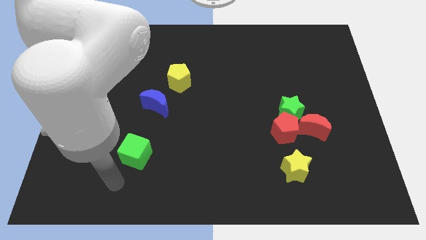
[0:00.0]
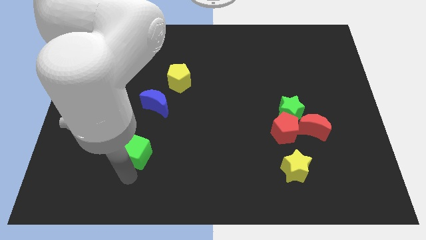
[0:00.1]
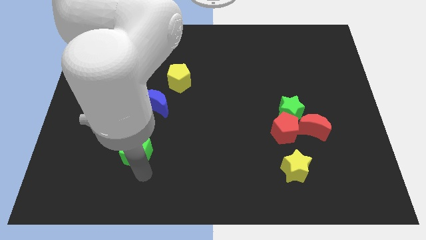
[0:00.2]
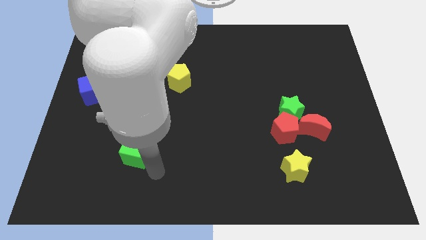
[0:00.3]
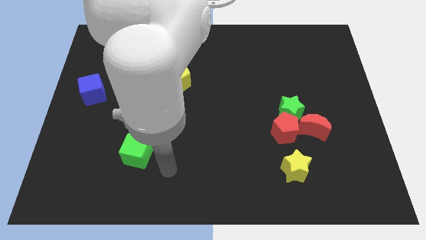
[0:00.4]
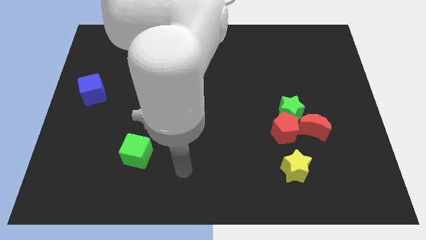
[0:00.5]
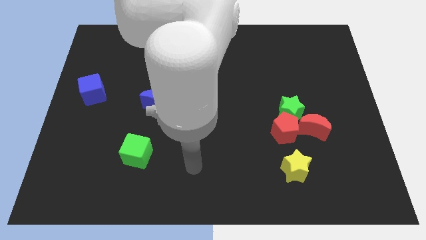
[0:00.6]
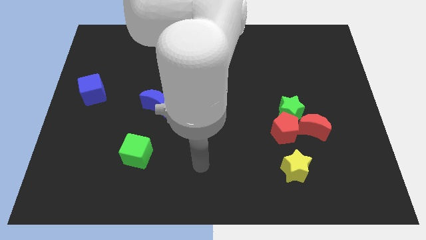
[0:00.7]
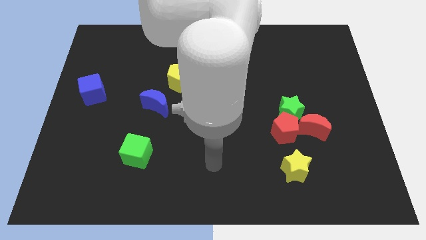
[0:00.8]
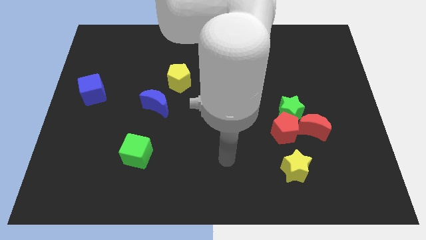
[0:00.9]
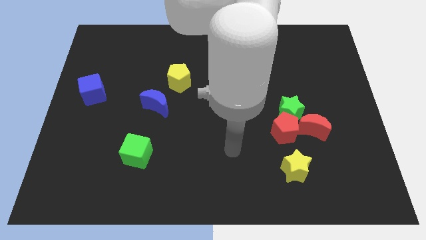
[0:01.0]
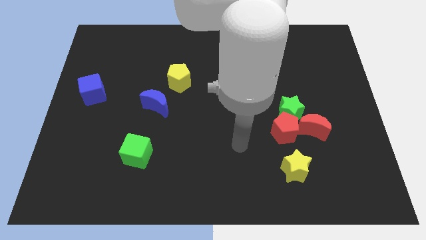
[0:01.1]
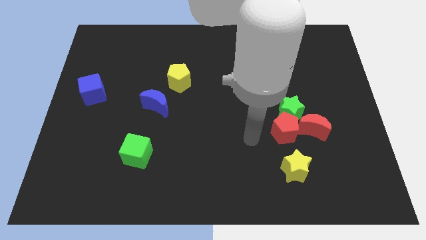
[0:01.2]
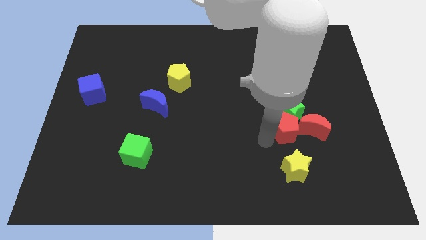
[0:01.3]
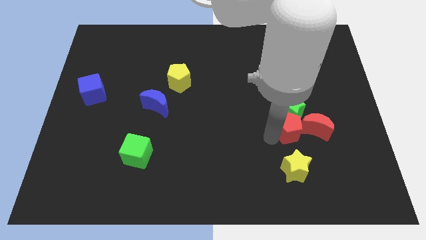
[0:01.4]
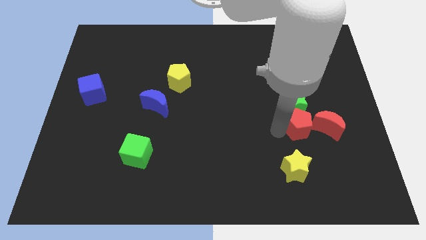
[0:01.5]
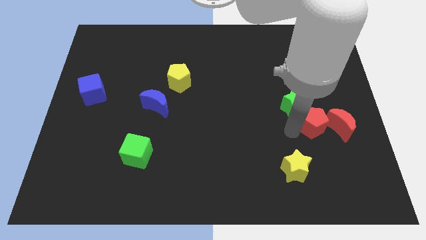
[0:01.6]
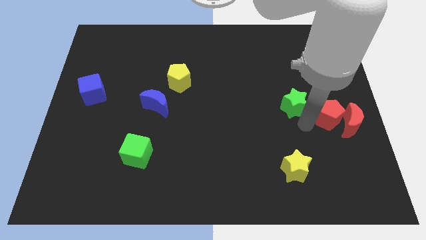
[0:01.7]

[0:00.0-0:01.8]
separate the green star from the red pentagon and red moon

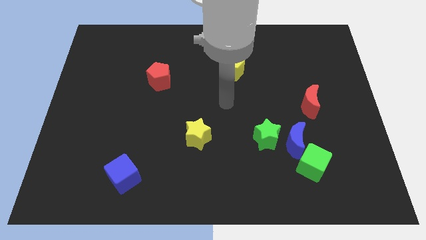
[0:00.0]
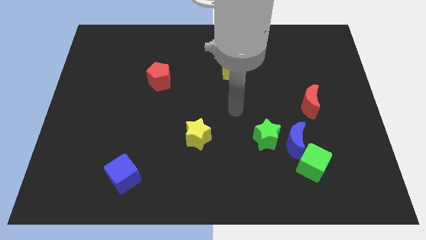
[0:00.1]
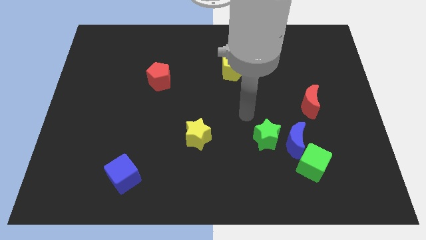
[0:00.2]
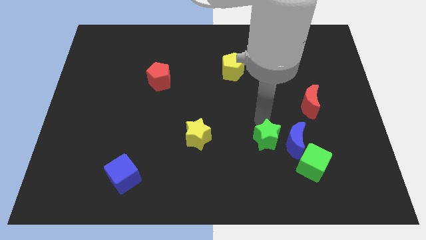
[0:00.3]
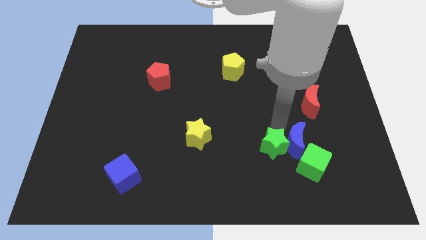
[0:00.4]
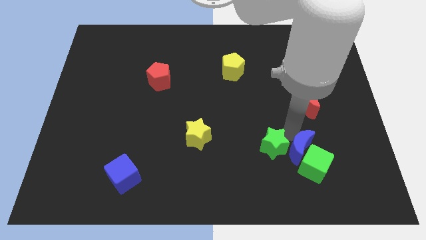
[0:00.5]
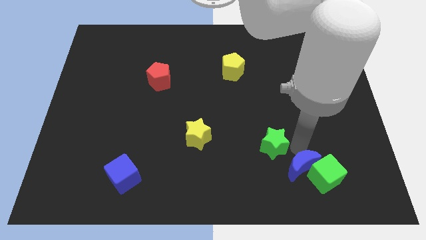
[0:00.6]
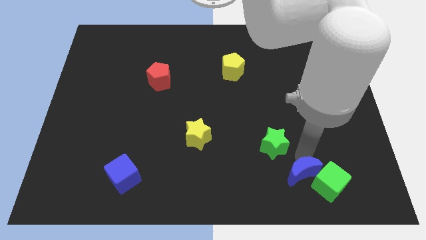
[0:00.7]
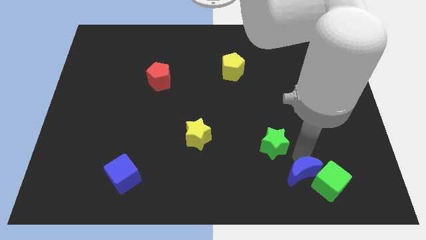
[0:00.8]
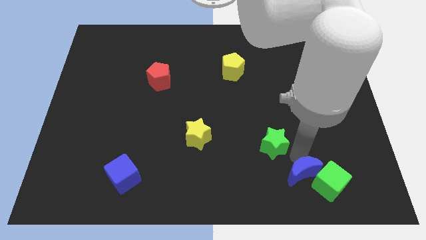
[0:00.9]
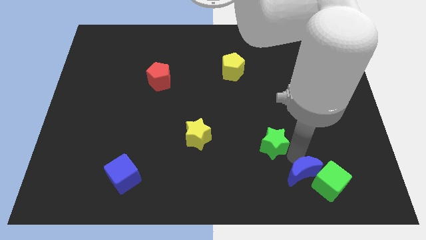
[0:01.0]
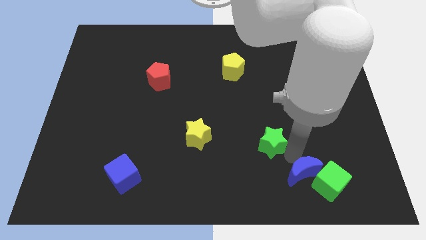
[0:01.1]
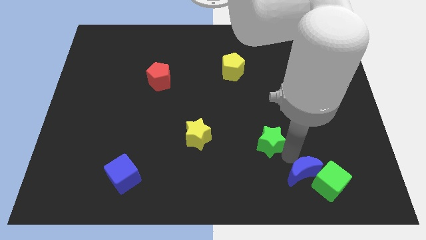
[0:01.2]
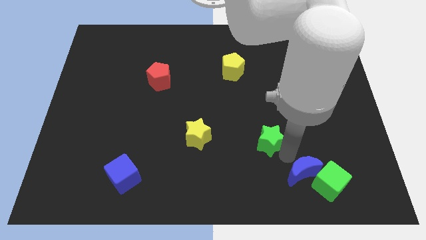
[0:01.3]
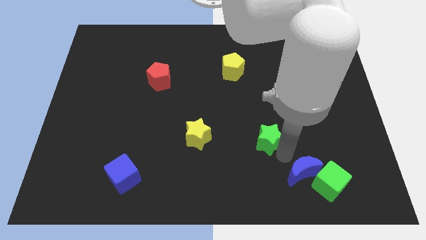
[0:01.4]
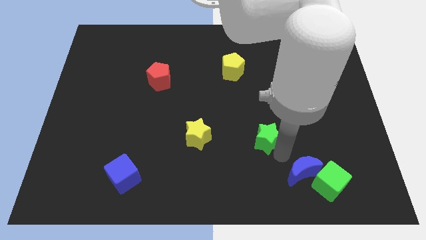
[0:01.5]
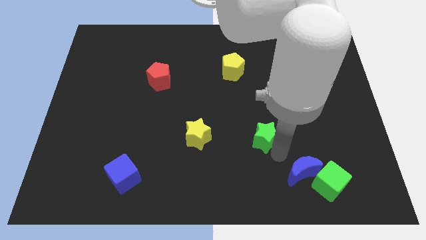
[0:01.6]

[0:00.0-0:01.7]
pull the green star apart from the blue moon

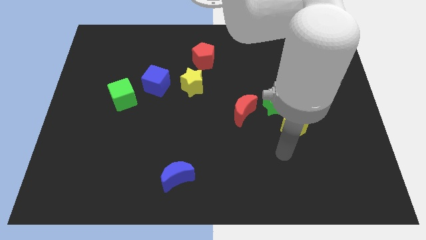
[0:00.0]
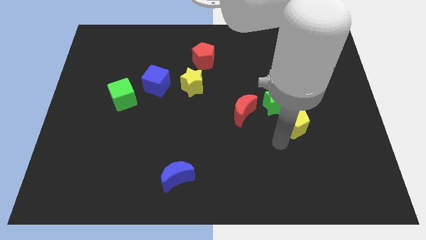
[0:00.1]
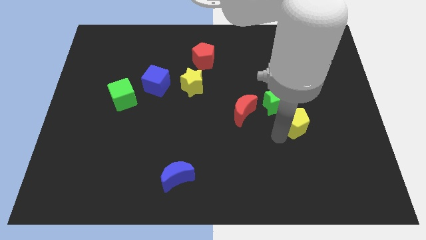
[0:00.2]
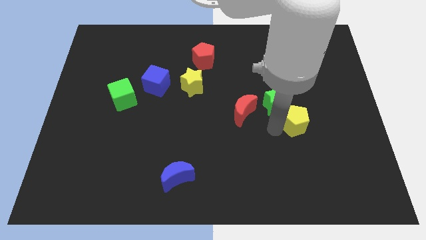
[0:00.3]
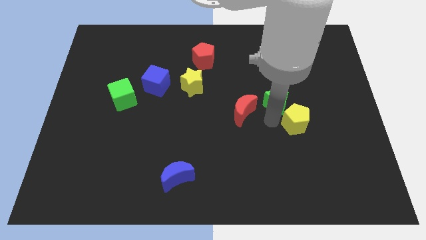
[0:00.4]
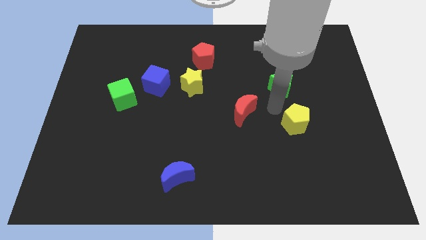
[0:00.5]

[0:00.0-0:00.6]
move the yellow pentagon away from the green star

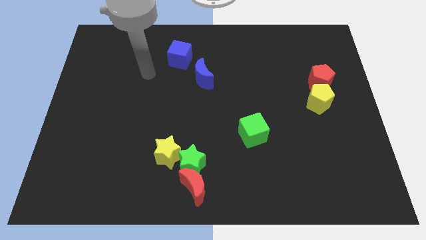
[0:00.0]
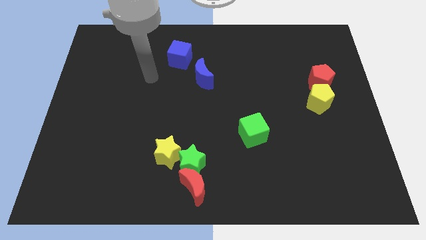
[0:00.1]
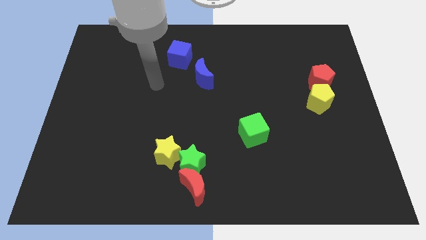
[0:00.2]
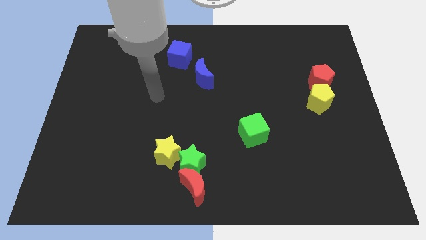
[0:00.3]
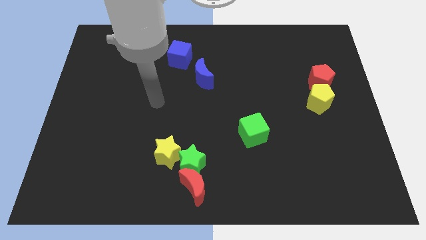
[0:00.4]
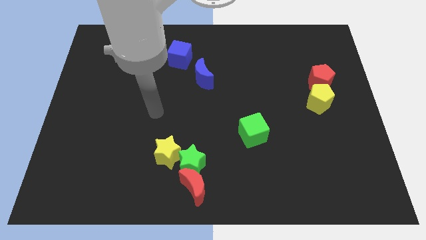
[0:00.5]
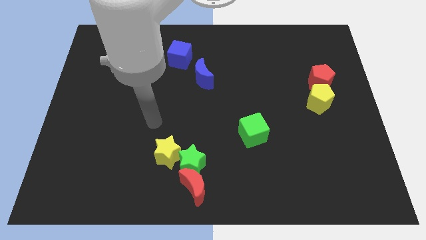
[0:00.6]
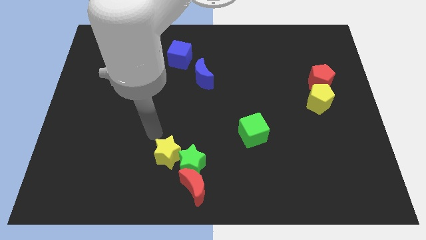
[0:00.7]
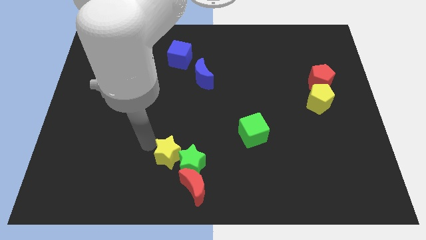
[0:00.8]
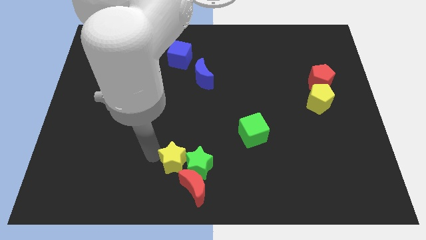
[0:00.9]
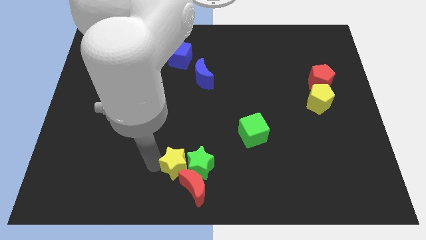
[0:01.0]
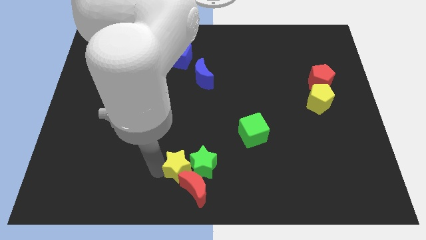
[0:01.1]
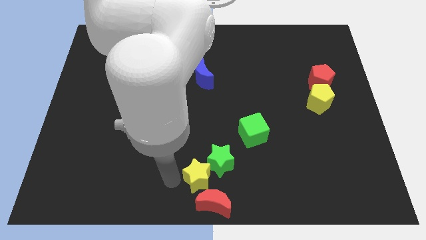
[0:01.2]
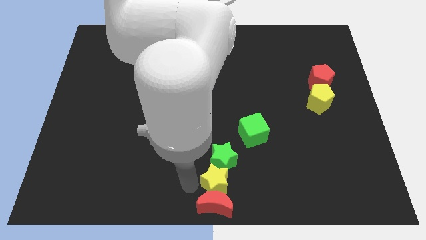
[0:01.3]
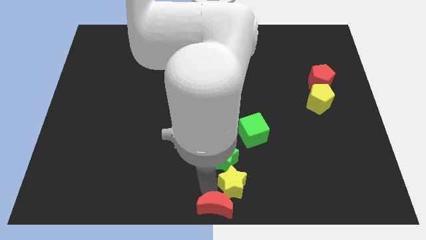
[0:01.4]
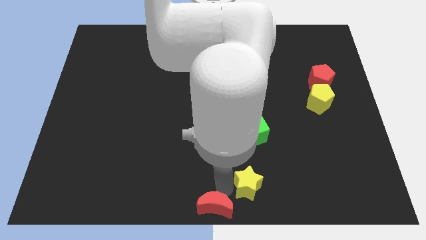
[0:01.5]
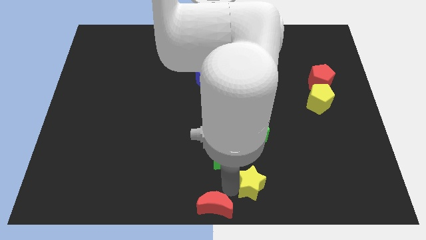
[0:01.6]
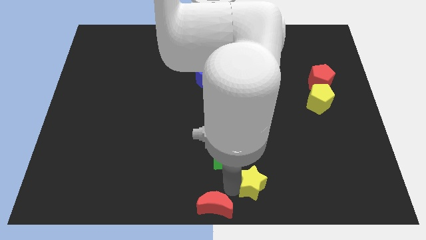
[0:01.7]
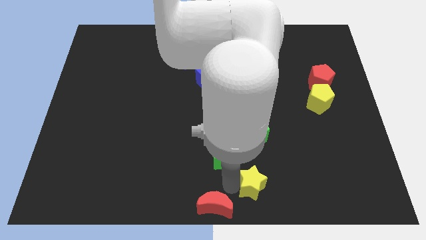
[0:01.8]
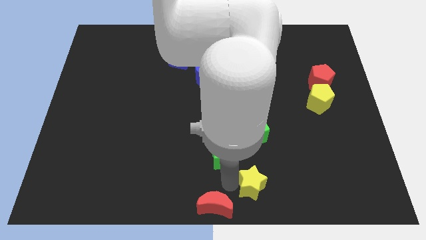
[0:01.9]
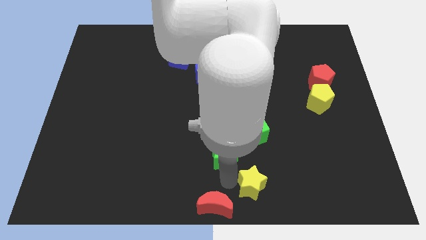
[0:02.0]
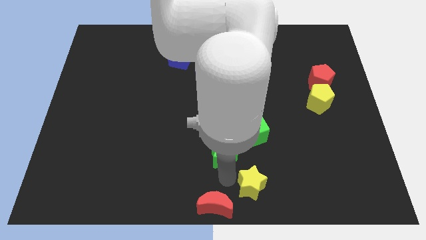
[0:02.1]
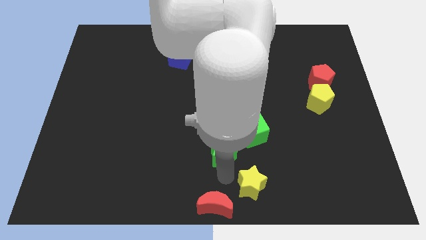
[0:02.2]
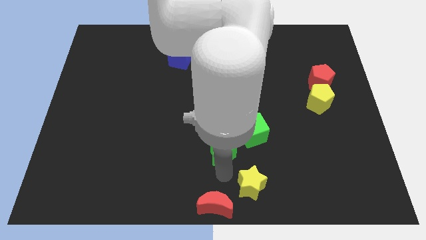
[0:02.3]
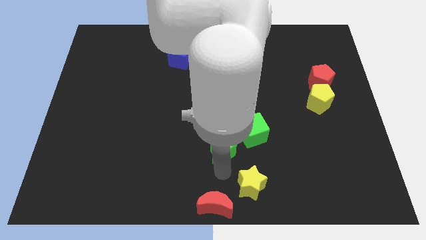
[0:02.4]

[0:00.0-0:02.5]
move the green star away from the red moon and yellow star

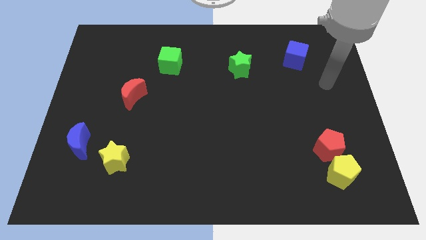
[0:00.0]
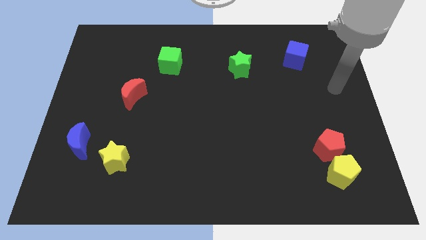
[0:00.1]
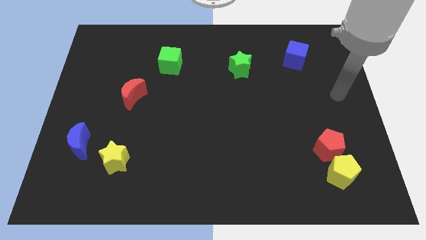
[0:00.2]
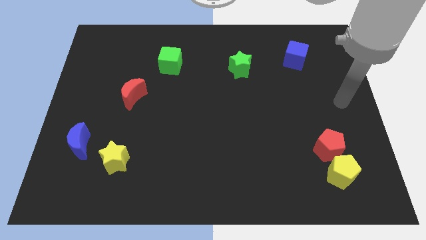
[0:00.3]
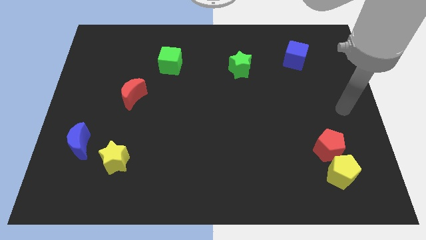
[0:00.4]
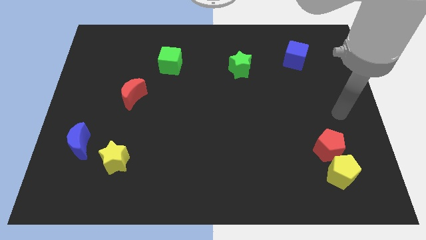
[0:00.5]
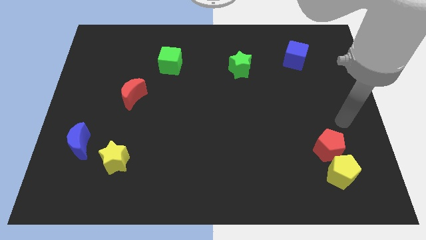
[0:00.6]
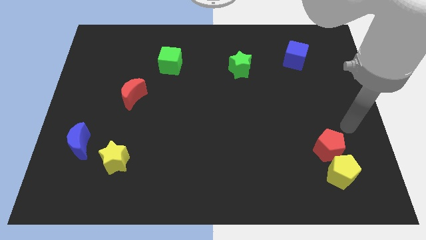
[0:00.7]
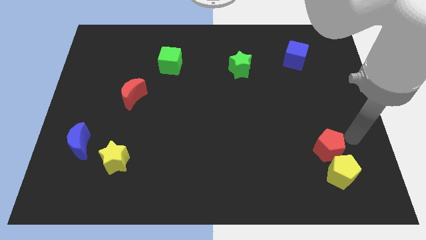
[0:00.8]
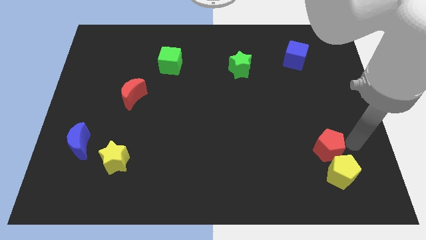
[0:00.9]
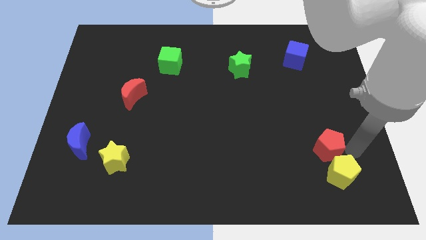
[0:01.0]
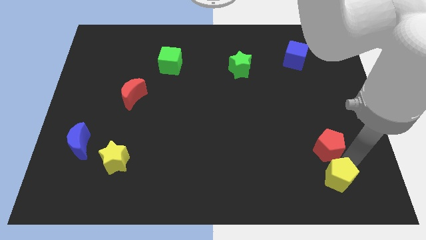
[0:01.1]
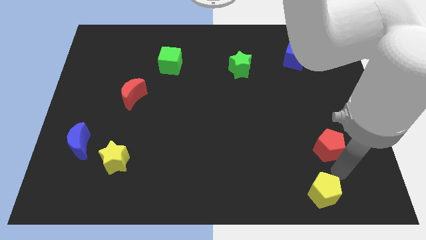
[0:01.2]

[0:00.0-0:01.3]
move the red pentagon away from the yellow pentagon

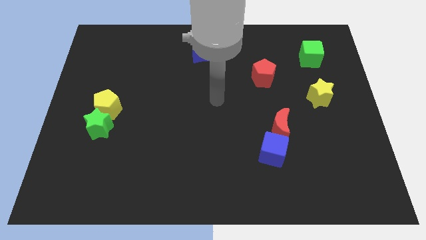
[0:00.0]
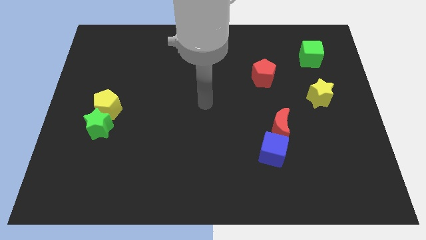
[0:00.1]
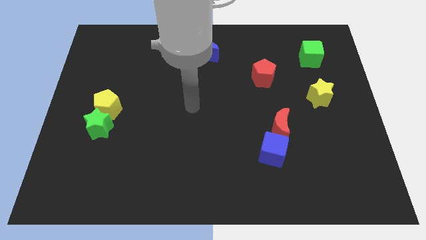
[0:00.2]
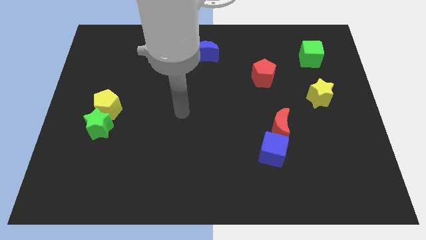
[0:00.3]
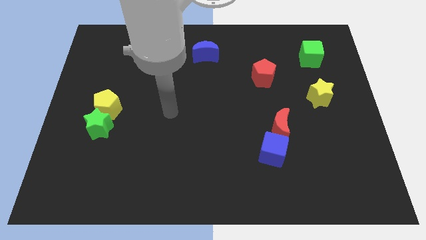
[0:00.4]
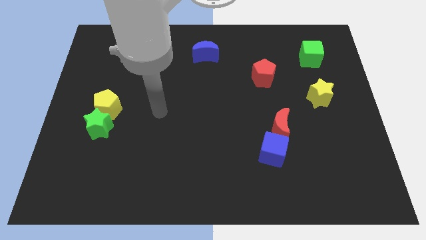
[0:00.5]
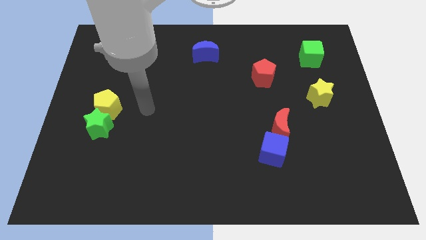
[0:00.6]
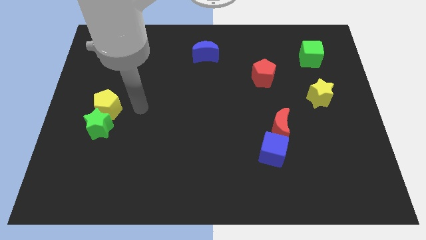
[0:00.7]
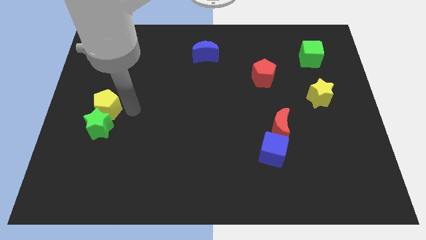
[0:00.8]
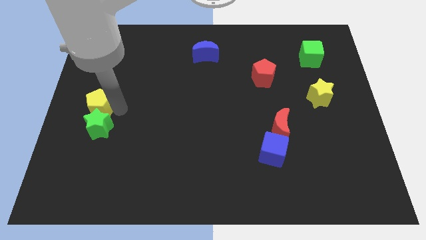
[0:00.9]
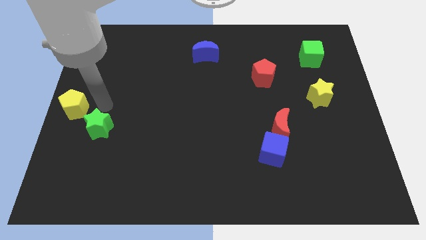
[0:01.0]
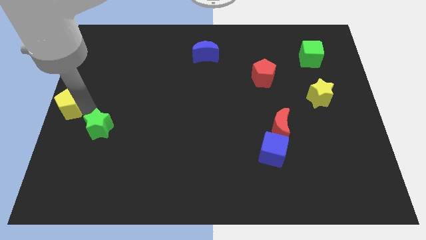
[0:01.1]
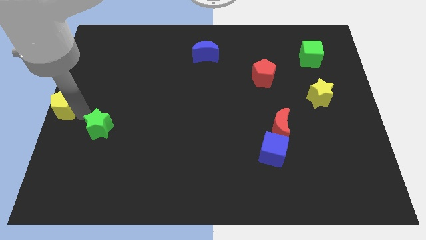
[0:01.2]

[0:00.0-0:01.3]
move the green star away from the yellow pentagon

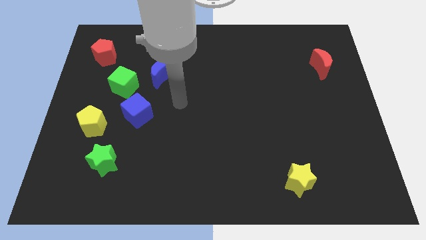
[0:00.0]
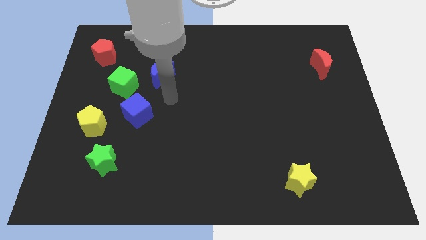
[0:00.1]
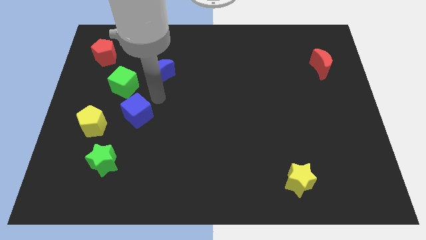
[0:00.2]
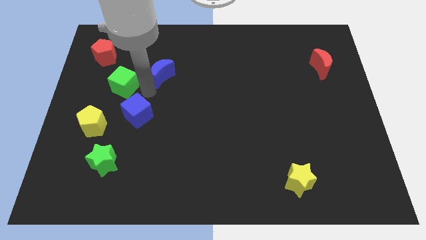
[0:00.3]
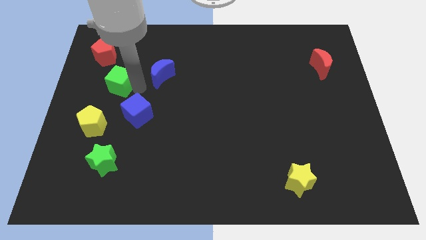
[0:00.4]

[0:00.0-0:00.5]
pull the blue moon apart from the green cube
